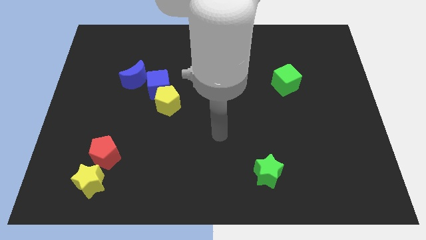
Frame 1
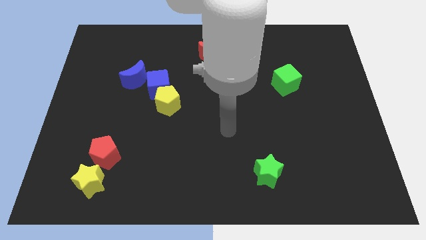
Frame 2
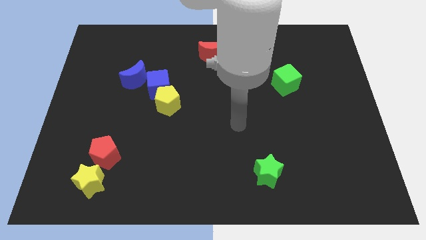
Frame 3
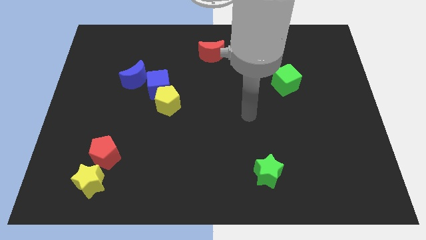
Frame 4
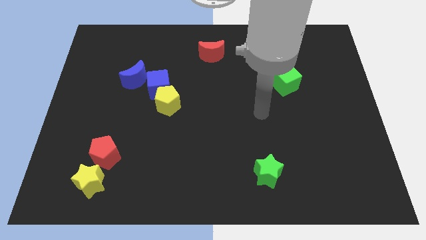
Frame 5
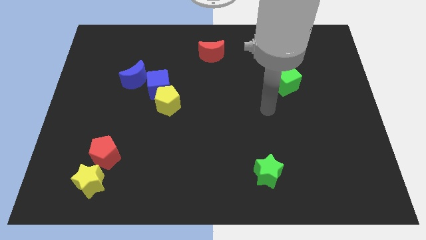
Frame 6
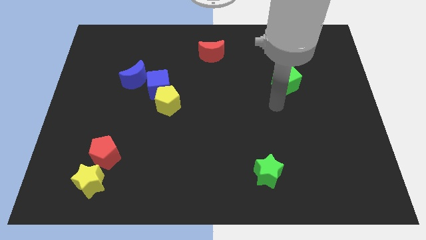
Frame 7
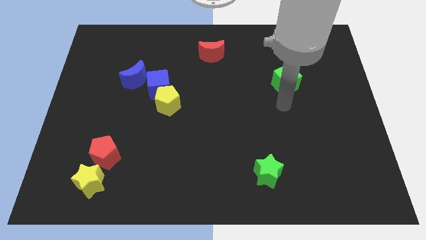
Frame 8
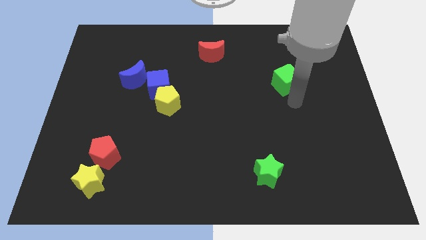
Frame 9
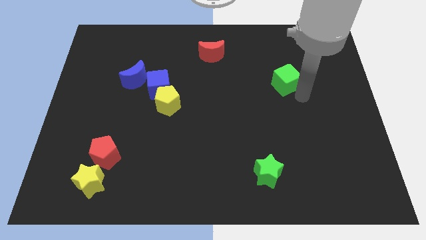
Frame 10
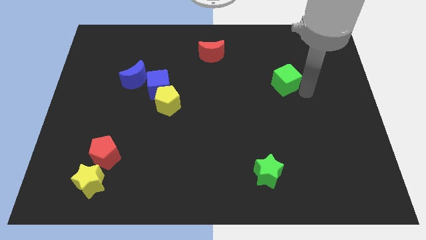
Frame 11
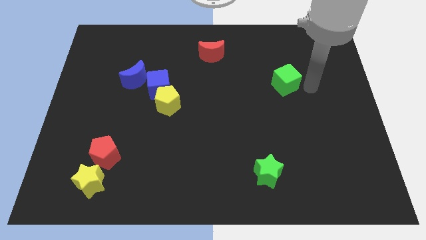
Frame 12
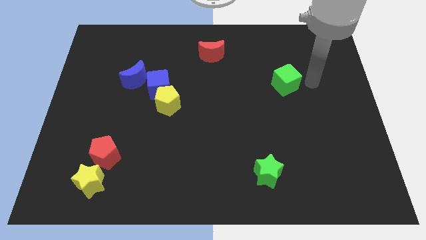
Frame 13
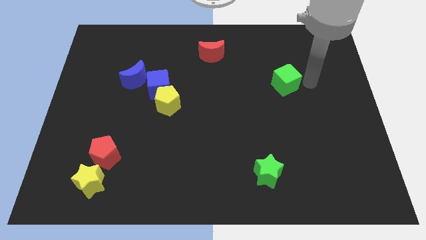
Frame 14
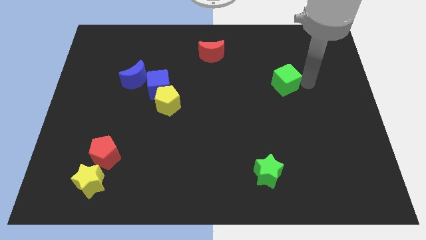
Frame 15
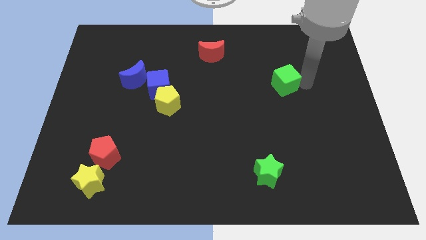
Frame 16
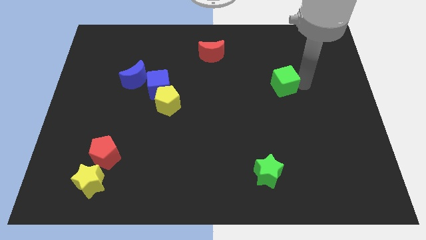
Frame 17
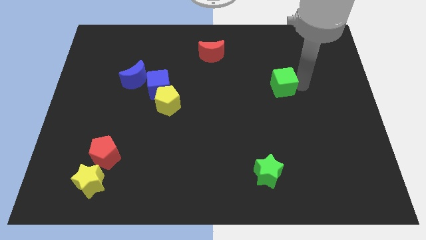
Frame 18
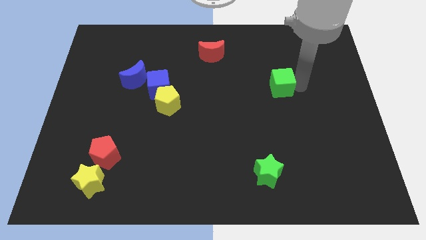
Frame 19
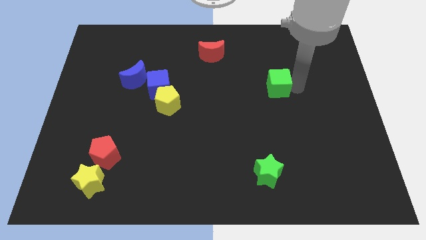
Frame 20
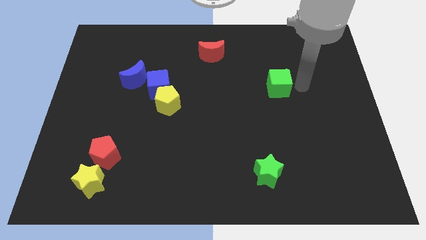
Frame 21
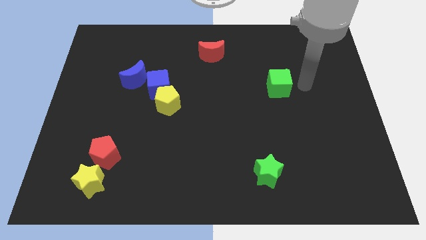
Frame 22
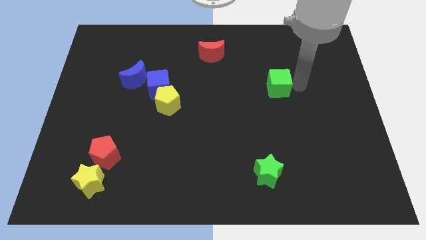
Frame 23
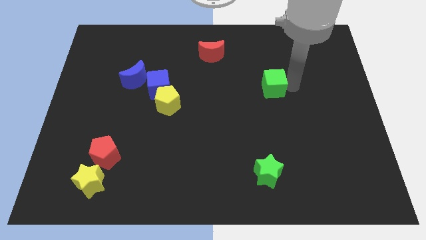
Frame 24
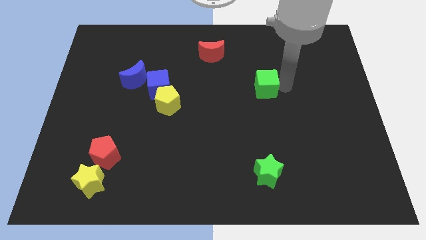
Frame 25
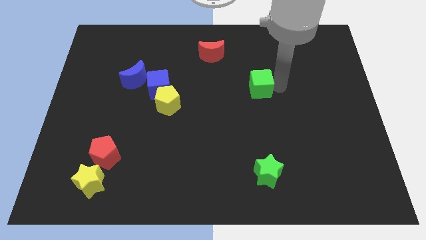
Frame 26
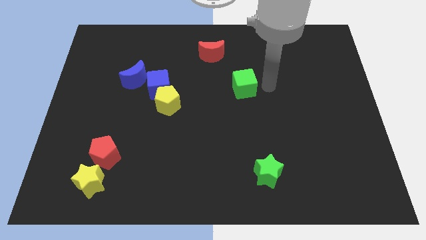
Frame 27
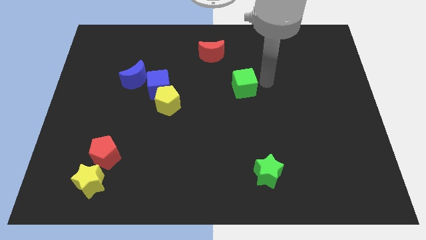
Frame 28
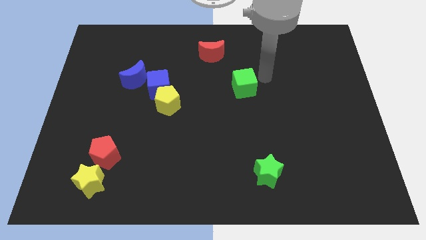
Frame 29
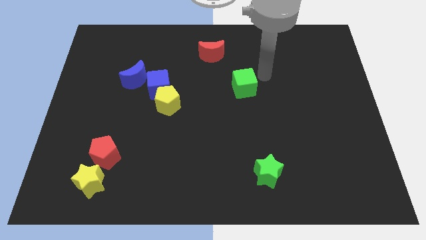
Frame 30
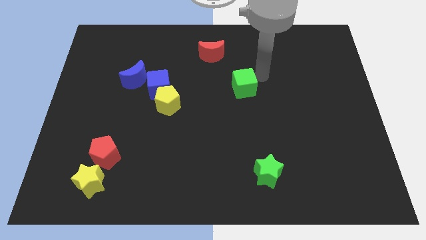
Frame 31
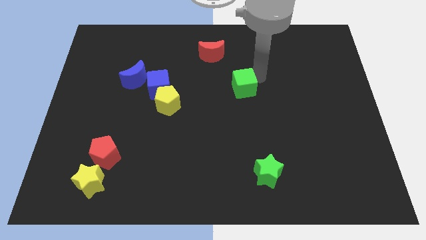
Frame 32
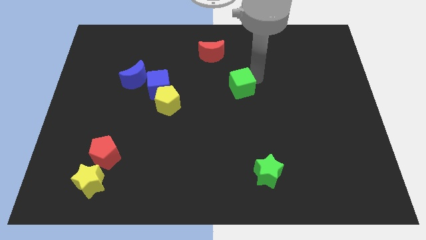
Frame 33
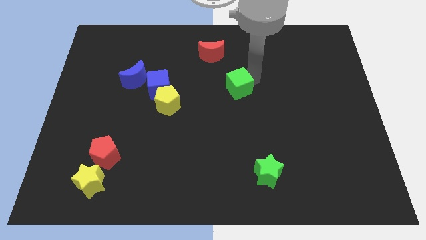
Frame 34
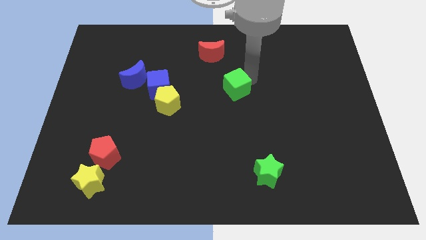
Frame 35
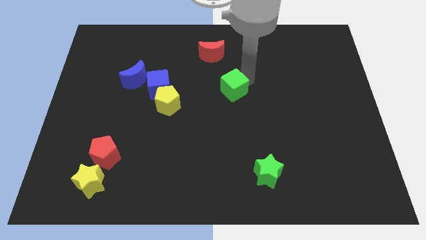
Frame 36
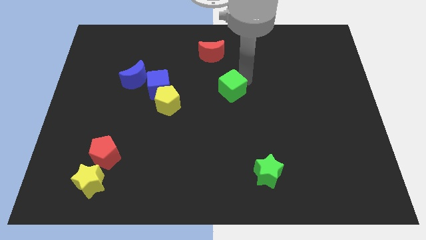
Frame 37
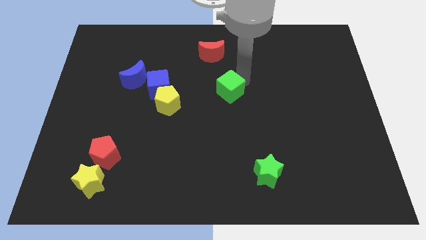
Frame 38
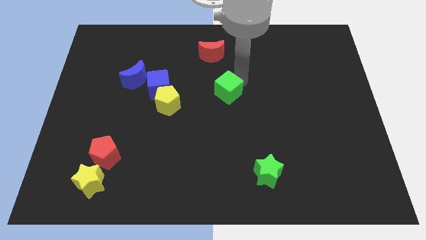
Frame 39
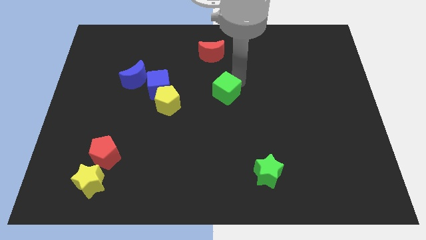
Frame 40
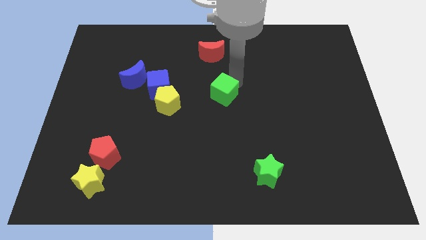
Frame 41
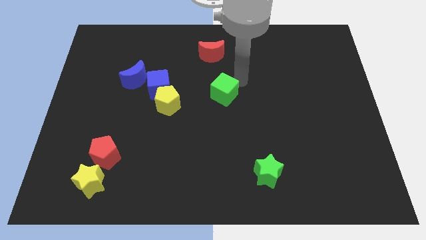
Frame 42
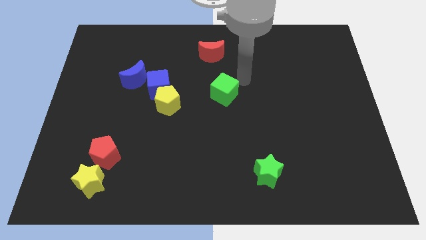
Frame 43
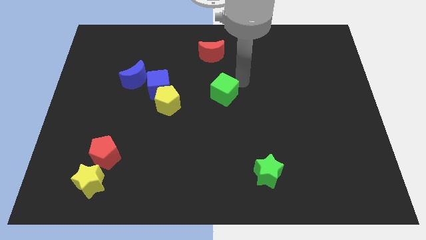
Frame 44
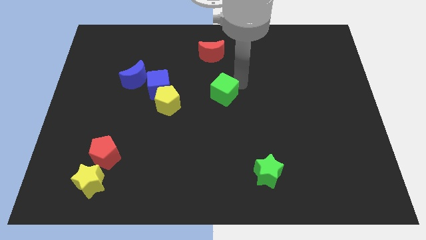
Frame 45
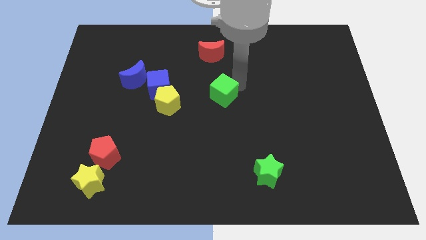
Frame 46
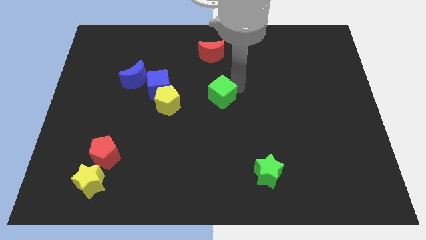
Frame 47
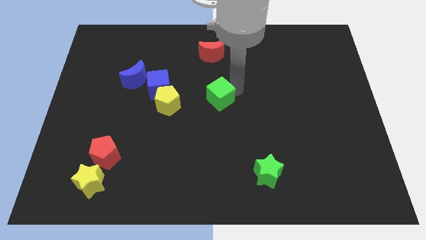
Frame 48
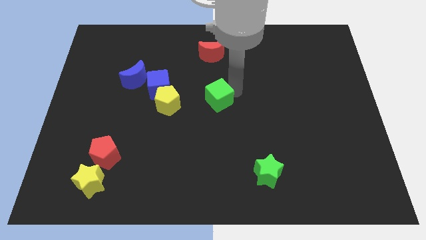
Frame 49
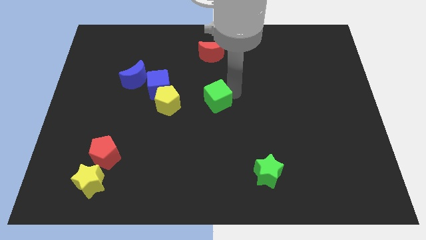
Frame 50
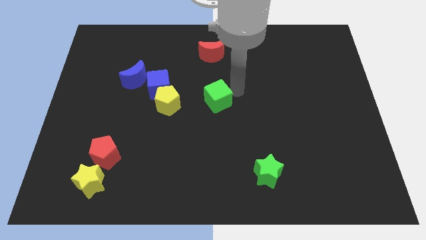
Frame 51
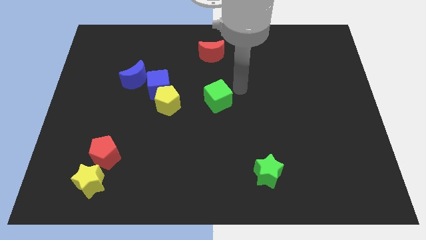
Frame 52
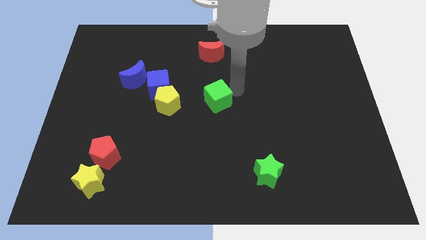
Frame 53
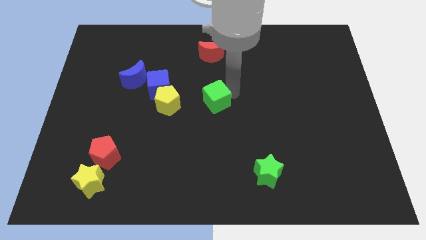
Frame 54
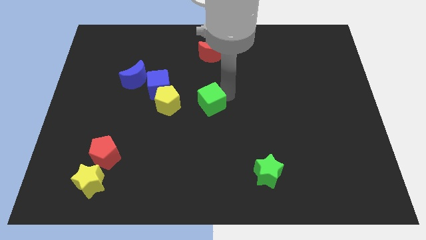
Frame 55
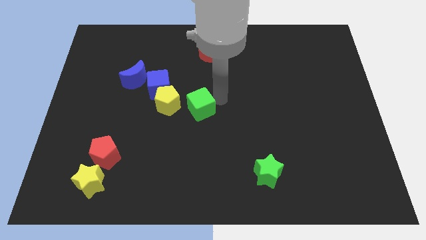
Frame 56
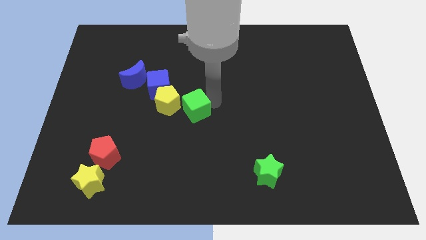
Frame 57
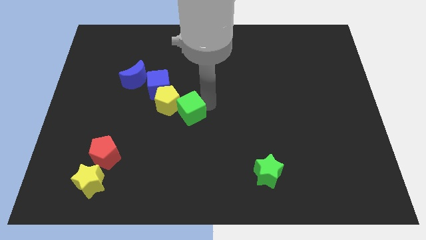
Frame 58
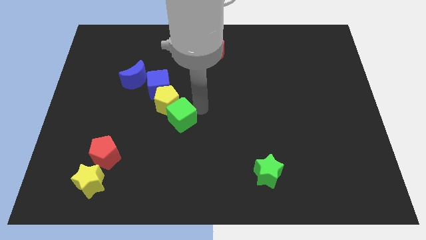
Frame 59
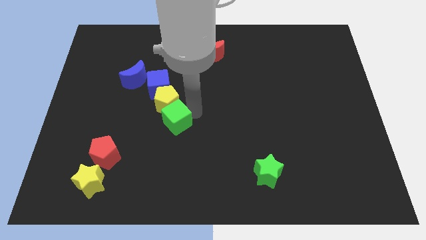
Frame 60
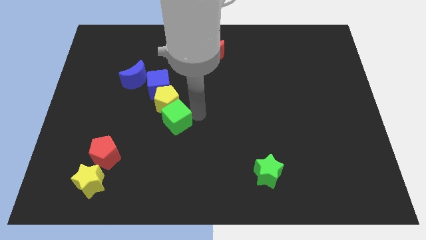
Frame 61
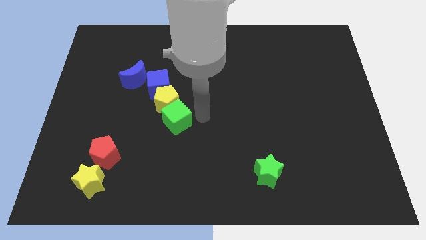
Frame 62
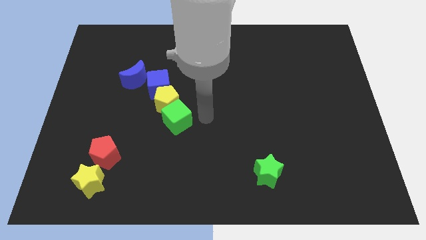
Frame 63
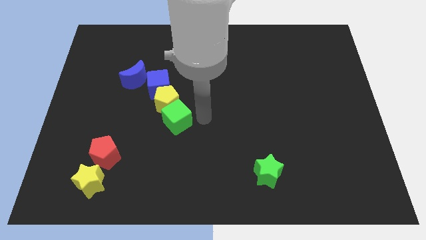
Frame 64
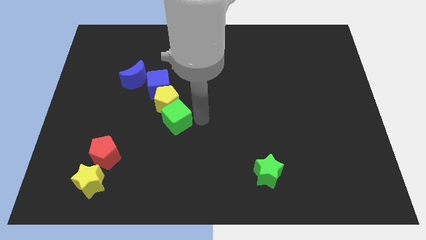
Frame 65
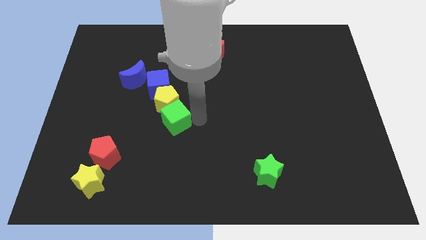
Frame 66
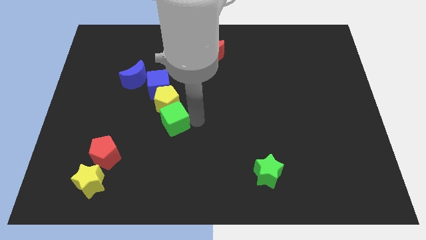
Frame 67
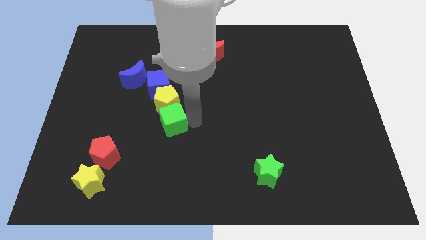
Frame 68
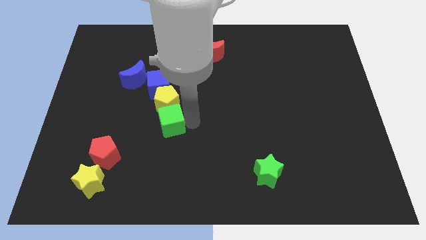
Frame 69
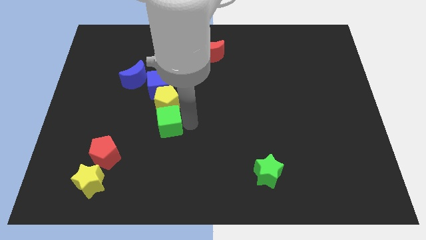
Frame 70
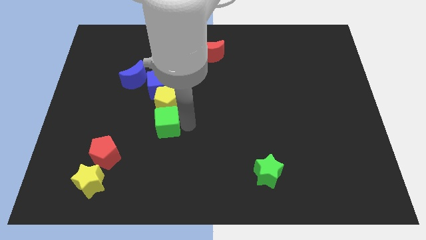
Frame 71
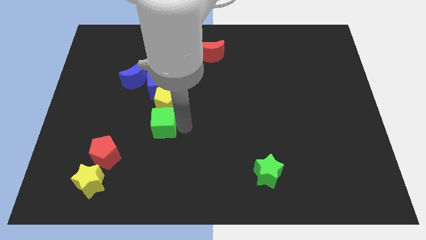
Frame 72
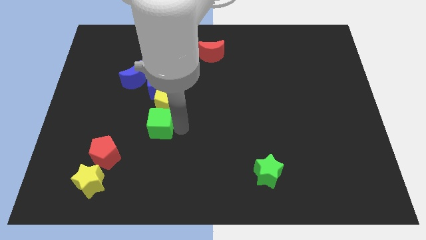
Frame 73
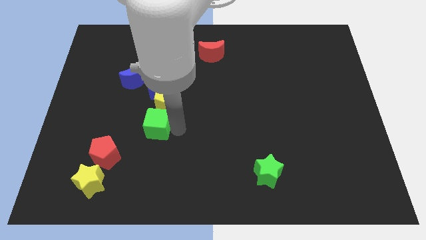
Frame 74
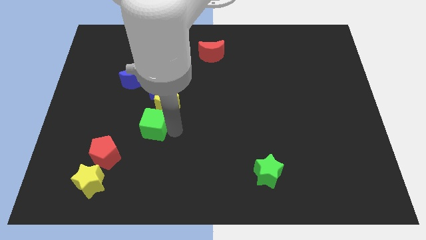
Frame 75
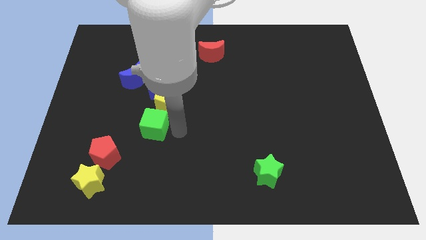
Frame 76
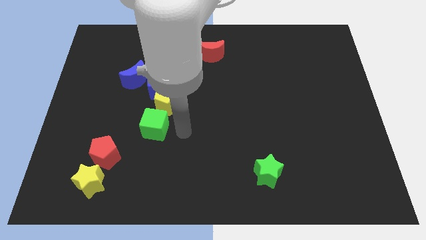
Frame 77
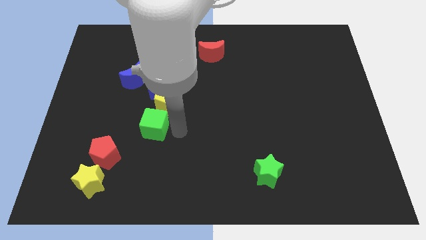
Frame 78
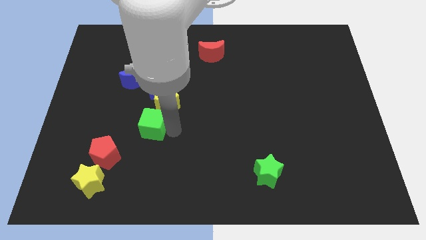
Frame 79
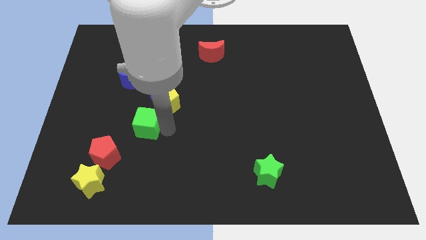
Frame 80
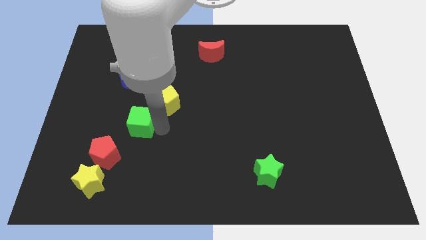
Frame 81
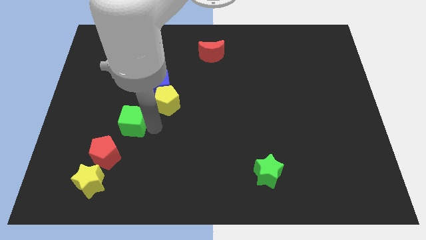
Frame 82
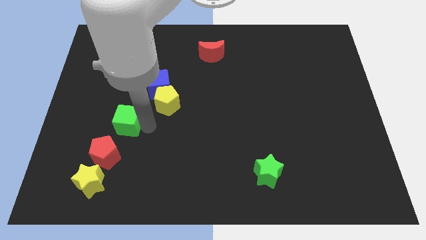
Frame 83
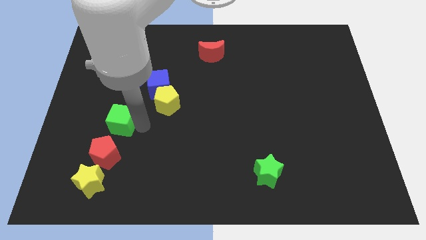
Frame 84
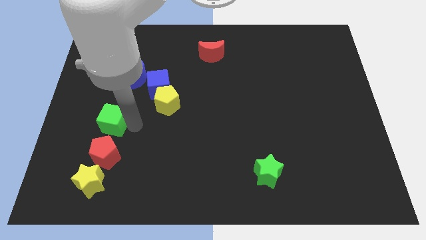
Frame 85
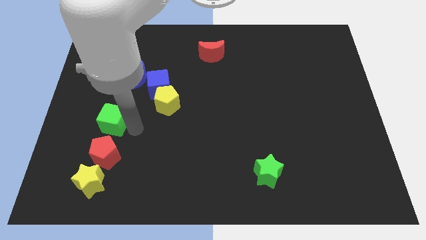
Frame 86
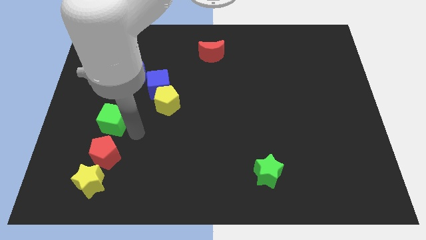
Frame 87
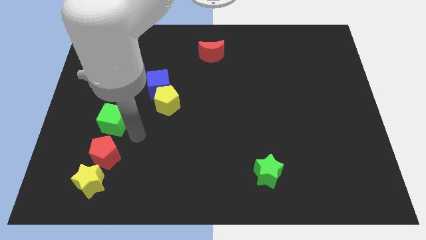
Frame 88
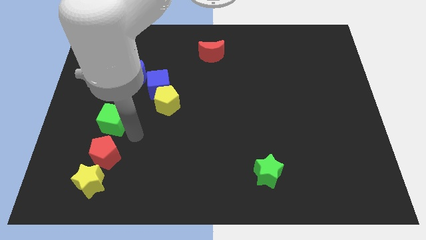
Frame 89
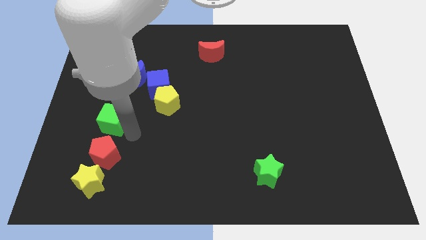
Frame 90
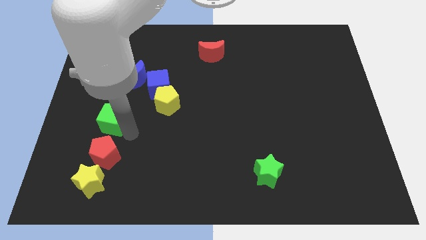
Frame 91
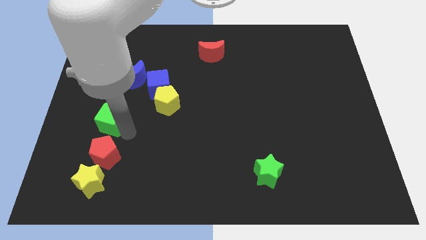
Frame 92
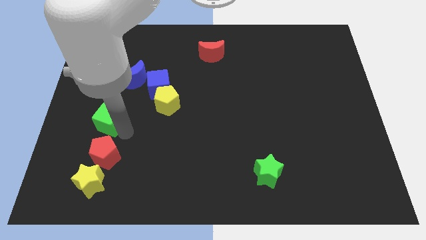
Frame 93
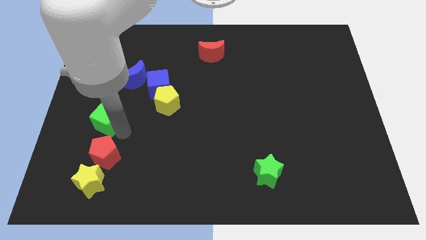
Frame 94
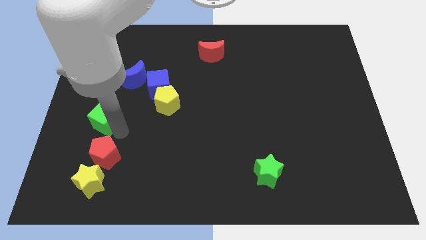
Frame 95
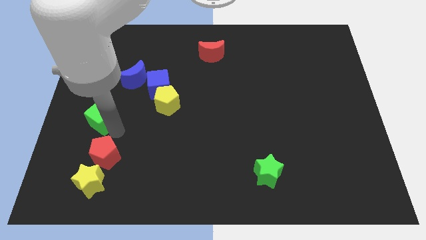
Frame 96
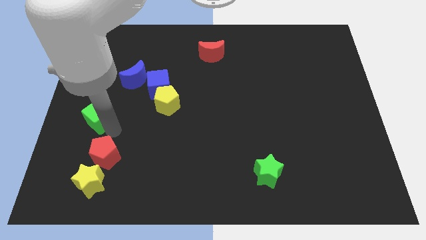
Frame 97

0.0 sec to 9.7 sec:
put the green cube to the center left
